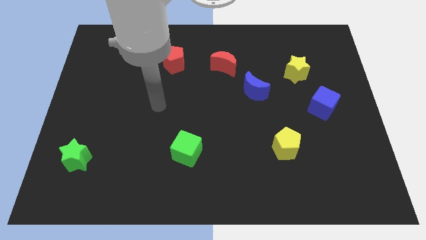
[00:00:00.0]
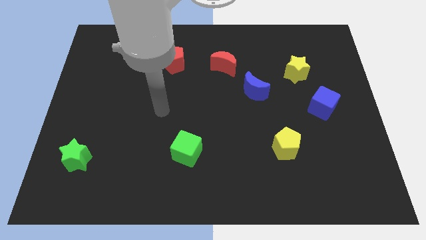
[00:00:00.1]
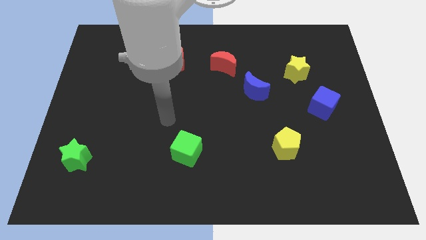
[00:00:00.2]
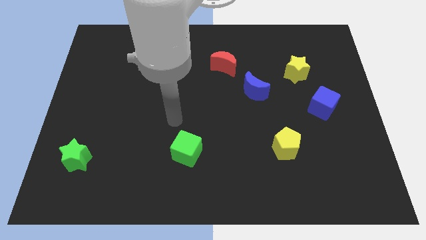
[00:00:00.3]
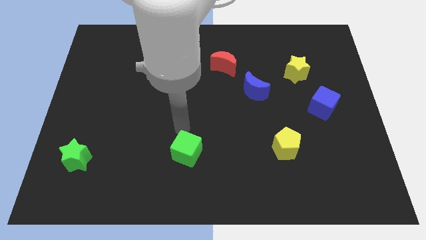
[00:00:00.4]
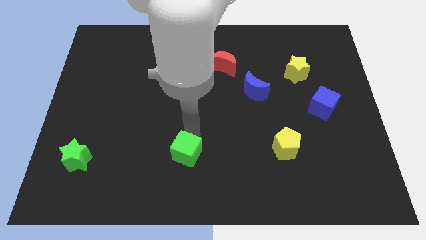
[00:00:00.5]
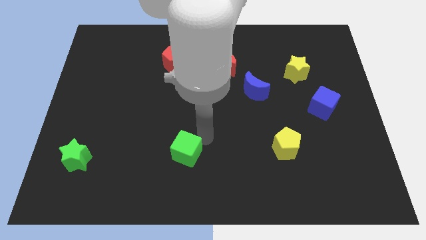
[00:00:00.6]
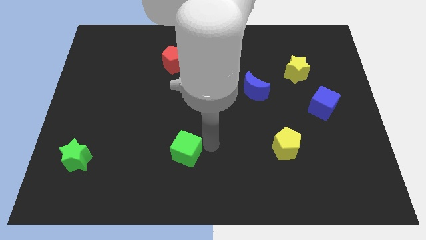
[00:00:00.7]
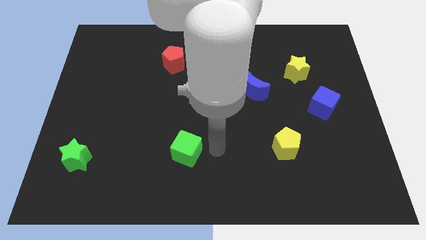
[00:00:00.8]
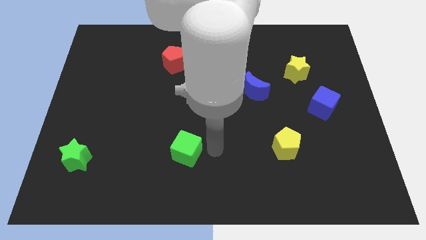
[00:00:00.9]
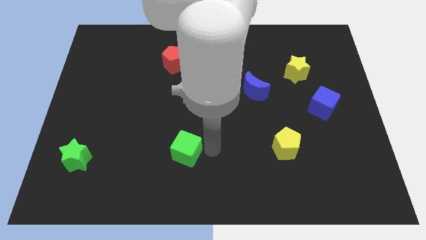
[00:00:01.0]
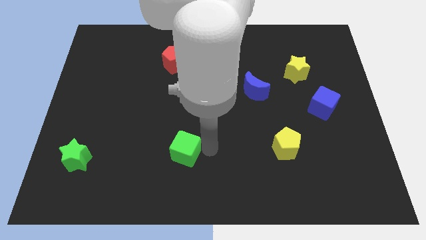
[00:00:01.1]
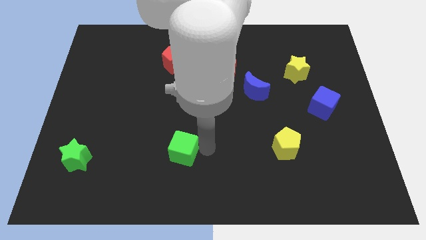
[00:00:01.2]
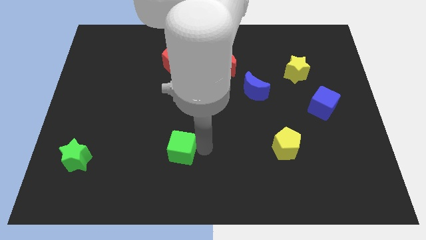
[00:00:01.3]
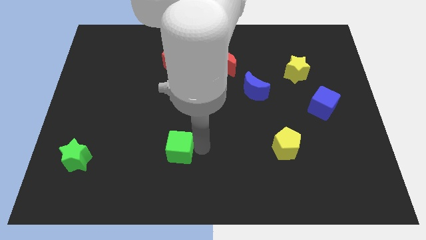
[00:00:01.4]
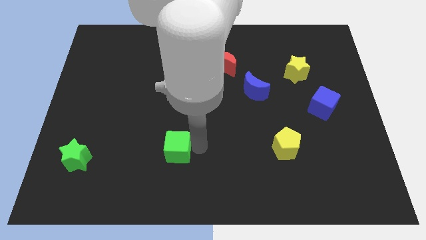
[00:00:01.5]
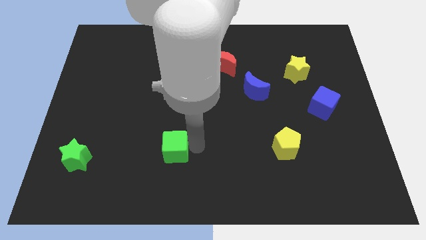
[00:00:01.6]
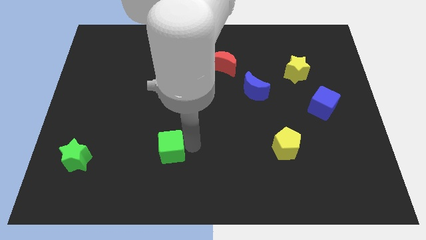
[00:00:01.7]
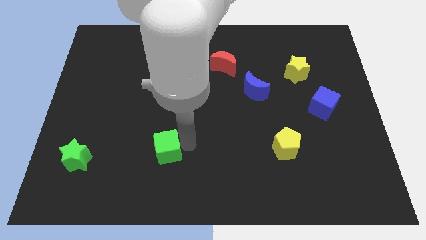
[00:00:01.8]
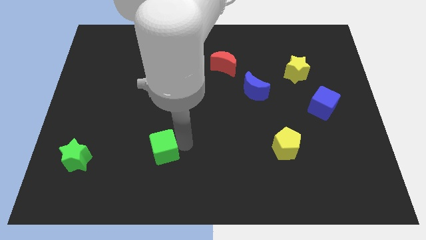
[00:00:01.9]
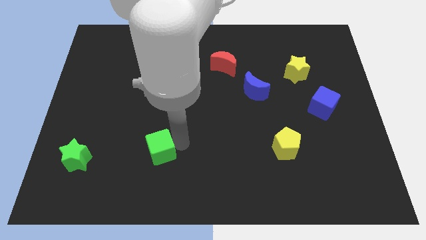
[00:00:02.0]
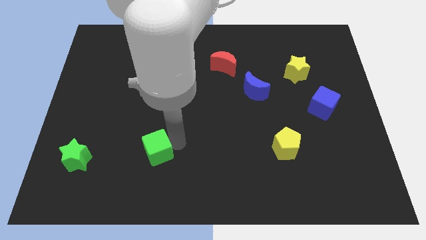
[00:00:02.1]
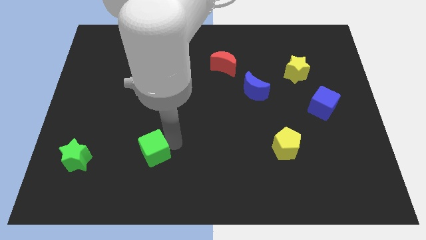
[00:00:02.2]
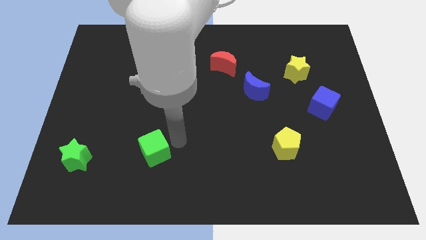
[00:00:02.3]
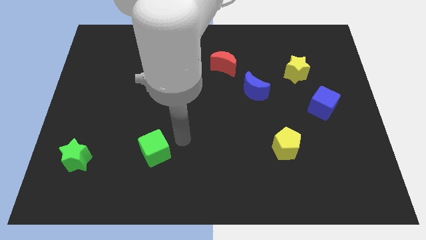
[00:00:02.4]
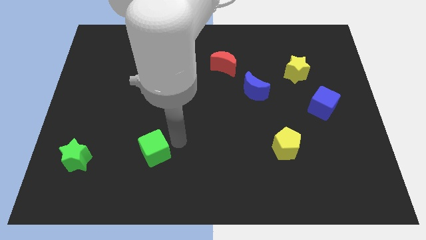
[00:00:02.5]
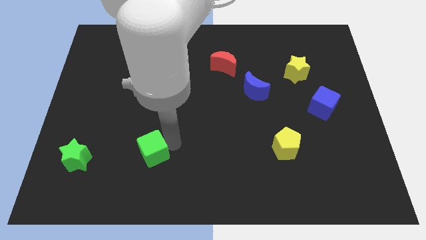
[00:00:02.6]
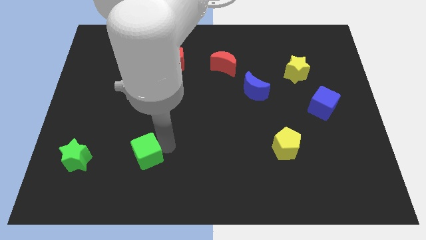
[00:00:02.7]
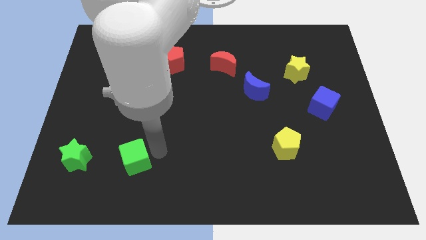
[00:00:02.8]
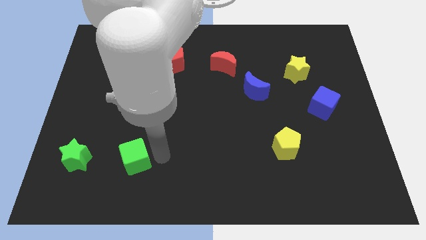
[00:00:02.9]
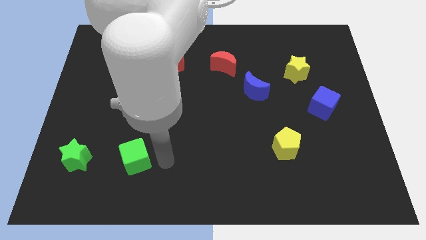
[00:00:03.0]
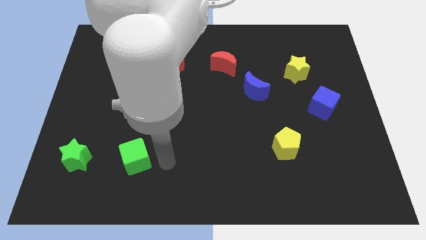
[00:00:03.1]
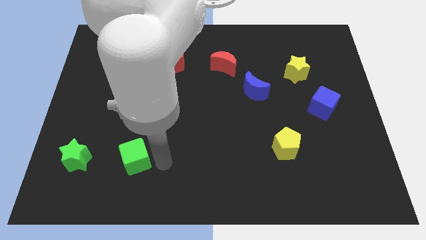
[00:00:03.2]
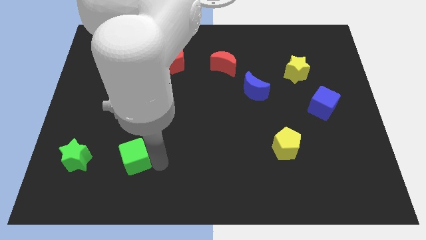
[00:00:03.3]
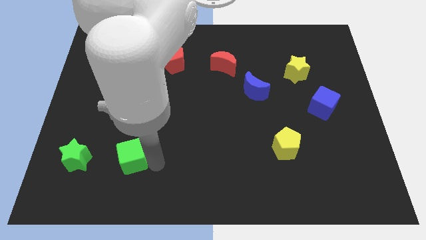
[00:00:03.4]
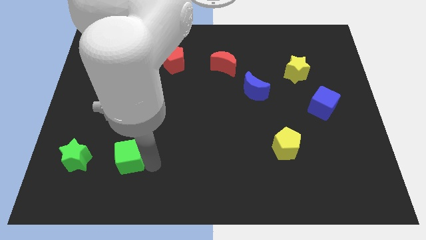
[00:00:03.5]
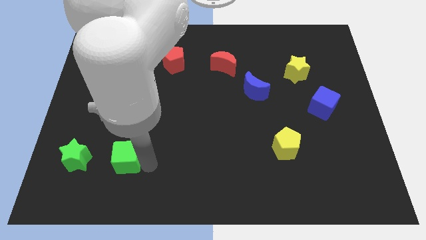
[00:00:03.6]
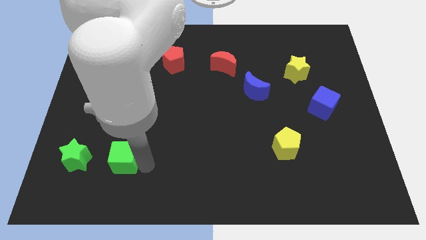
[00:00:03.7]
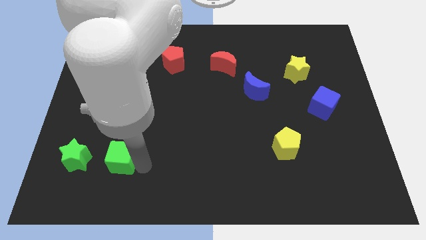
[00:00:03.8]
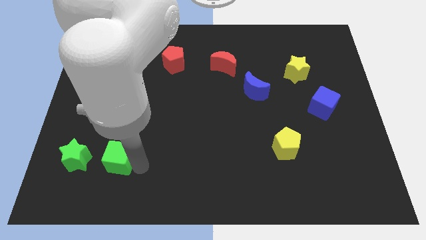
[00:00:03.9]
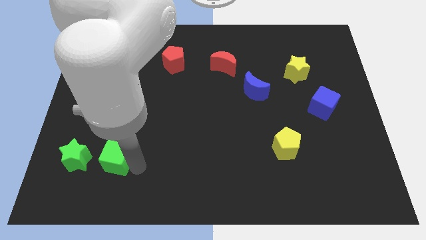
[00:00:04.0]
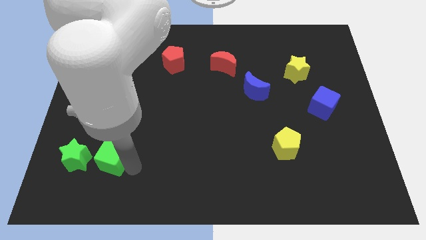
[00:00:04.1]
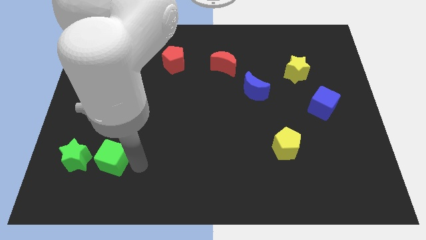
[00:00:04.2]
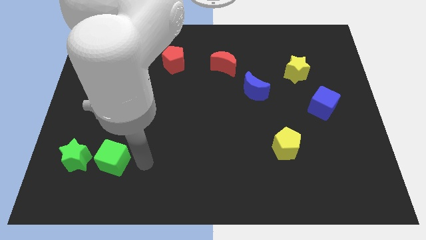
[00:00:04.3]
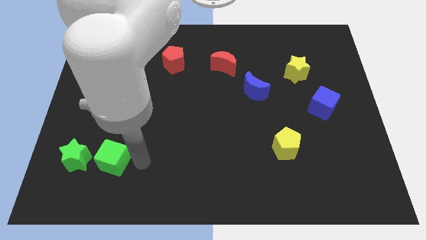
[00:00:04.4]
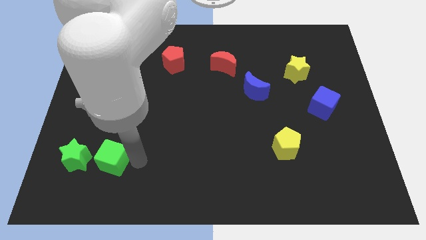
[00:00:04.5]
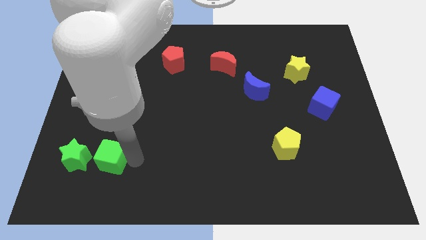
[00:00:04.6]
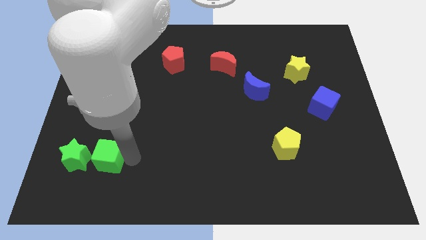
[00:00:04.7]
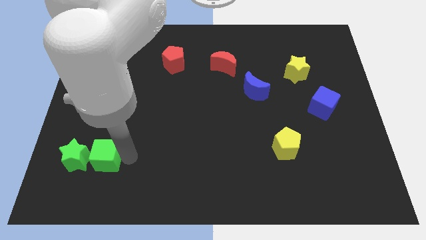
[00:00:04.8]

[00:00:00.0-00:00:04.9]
move the green cube to the green star

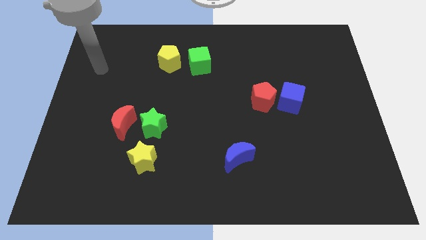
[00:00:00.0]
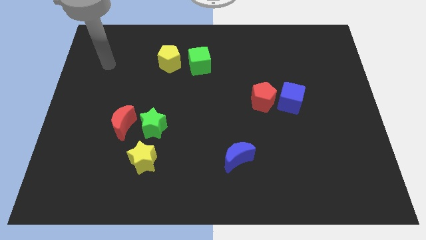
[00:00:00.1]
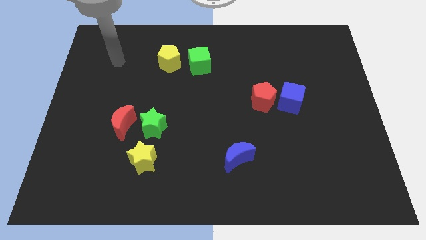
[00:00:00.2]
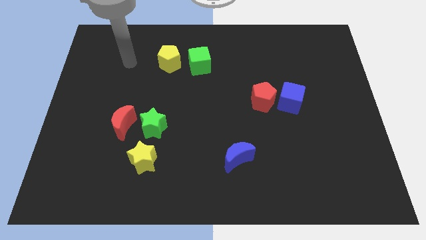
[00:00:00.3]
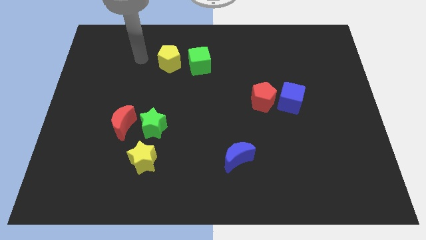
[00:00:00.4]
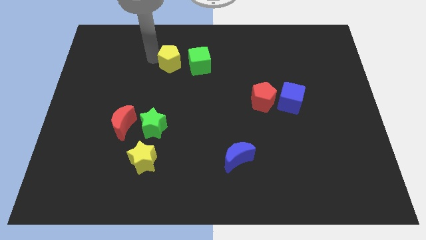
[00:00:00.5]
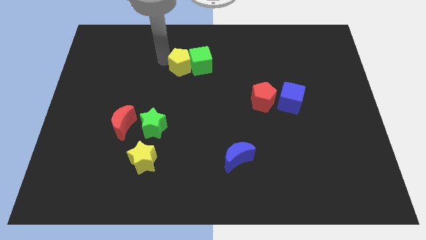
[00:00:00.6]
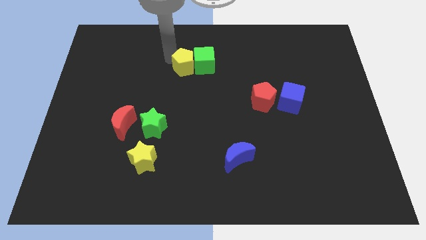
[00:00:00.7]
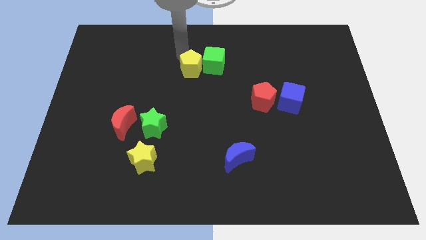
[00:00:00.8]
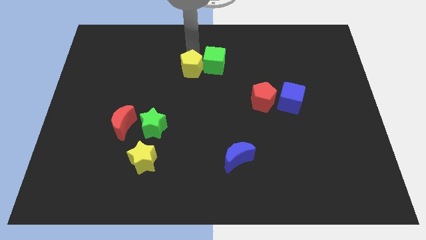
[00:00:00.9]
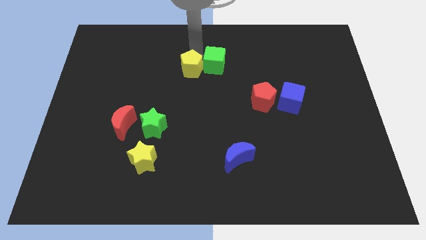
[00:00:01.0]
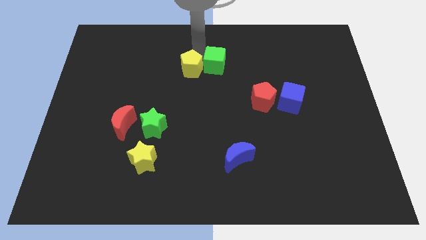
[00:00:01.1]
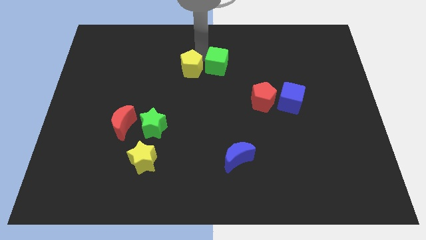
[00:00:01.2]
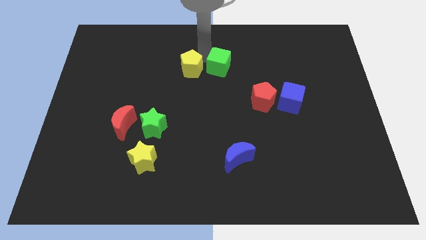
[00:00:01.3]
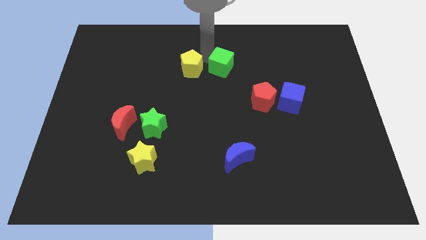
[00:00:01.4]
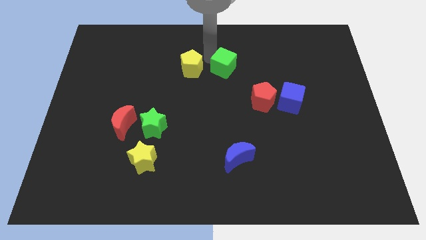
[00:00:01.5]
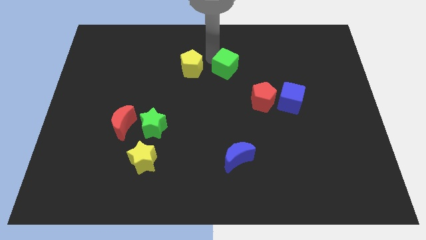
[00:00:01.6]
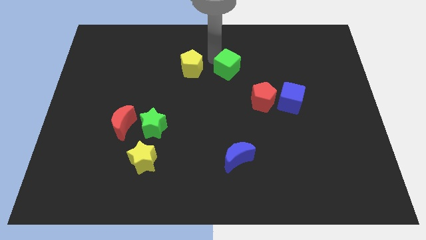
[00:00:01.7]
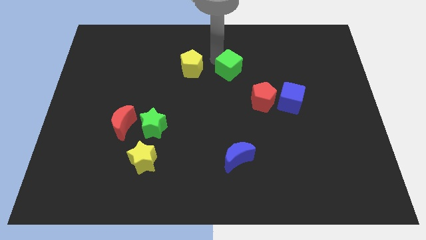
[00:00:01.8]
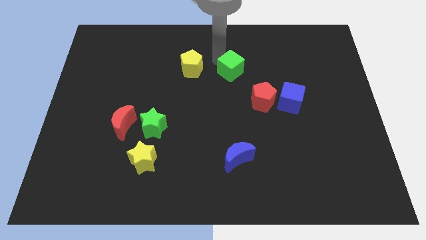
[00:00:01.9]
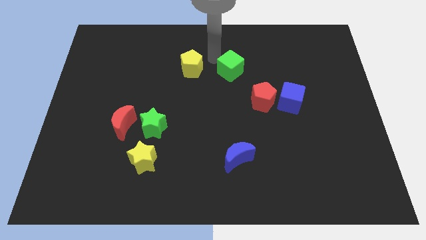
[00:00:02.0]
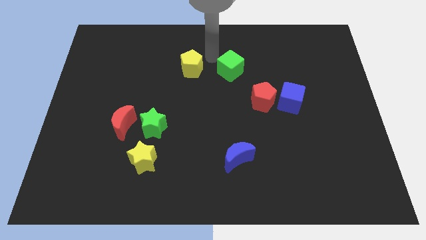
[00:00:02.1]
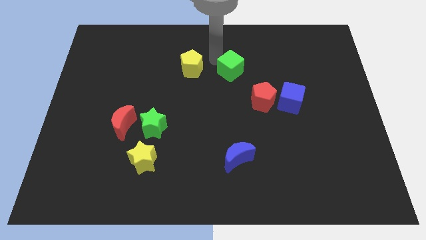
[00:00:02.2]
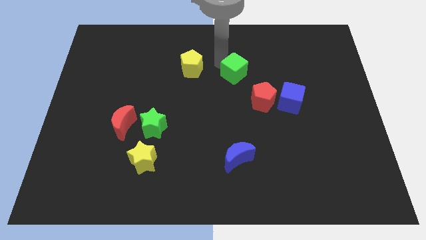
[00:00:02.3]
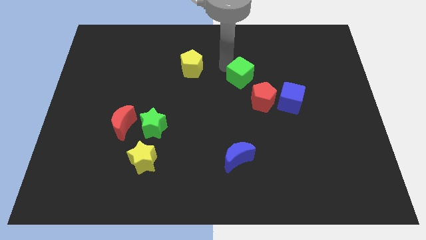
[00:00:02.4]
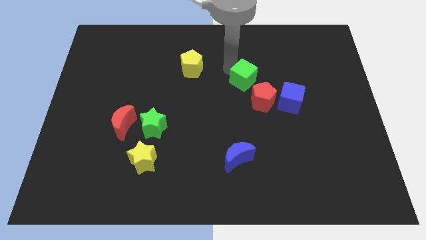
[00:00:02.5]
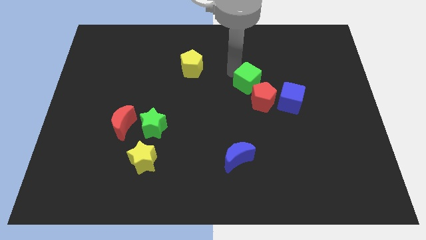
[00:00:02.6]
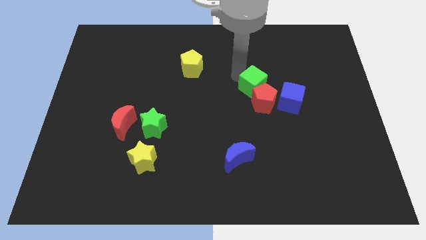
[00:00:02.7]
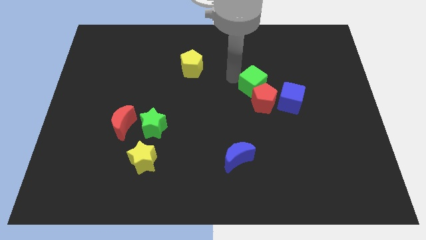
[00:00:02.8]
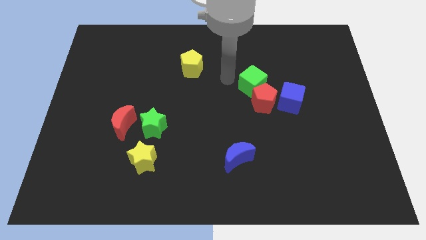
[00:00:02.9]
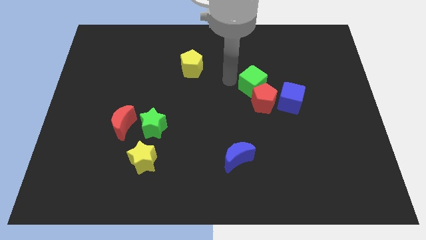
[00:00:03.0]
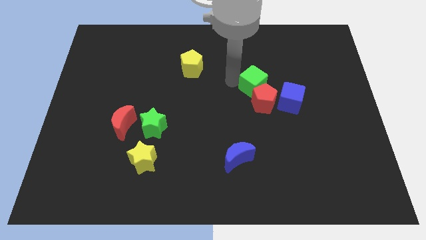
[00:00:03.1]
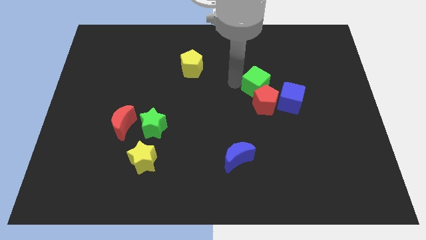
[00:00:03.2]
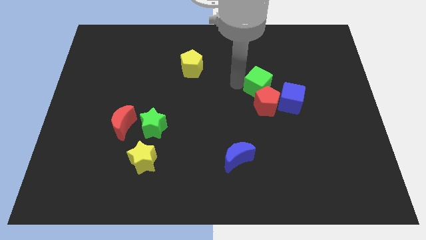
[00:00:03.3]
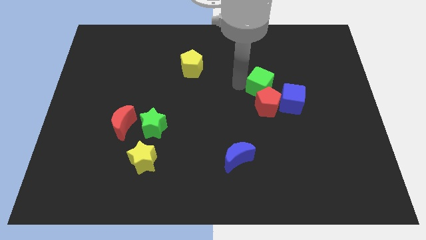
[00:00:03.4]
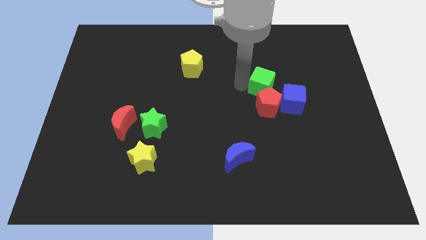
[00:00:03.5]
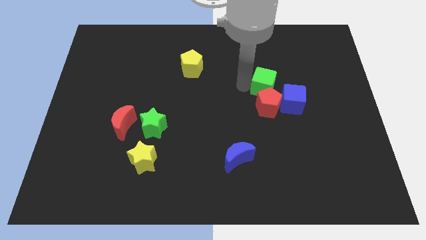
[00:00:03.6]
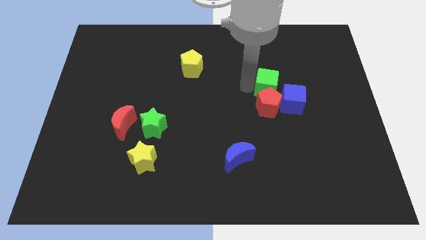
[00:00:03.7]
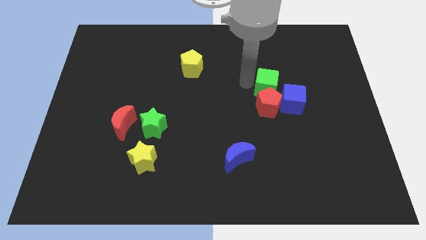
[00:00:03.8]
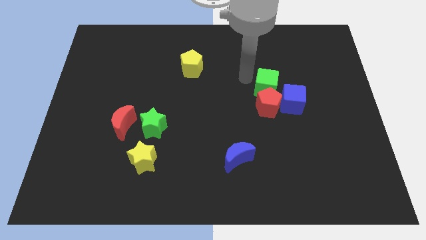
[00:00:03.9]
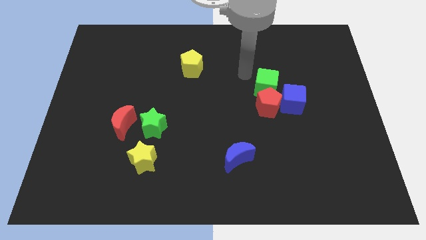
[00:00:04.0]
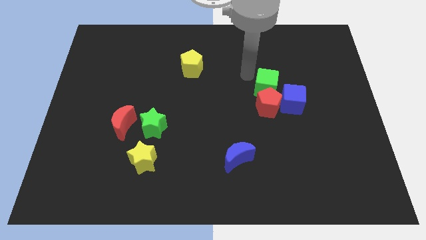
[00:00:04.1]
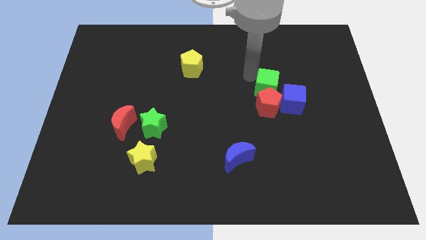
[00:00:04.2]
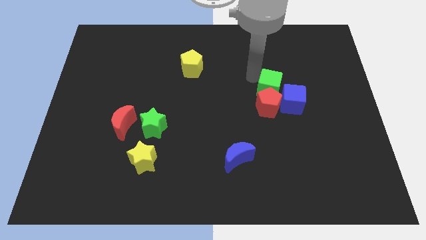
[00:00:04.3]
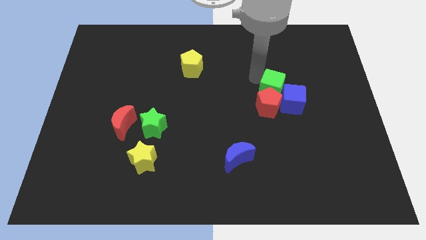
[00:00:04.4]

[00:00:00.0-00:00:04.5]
put the green cube towards the blue cube
